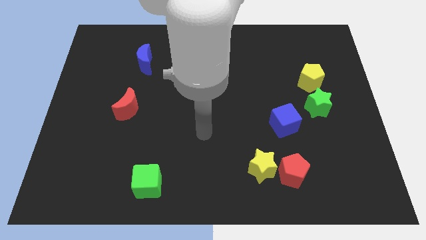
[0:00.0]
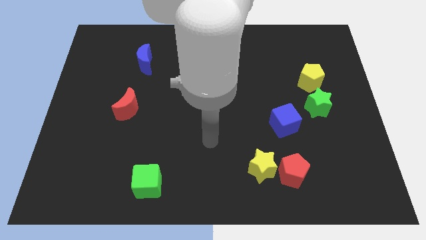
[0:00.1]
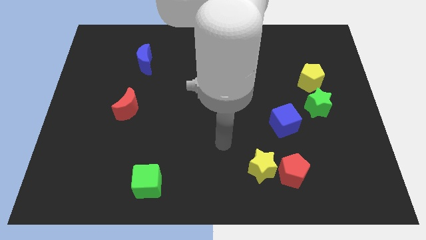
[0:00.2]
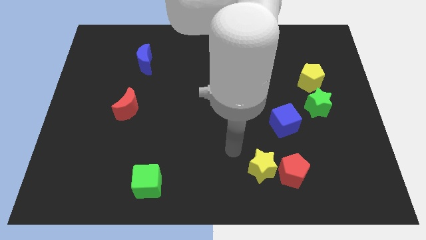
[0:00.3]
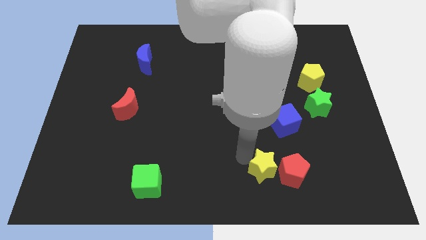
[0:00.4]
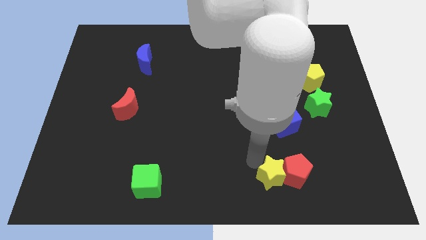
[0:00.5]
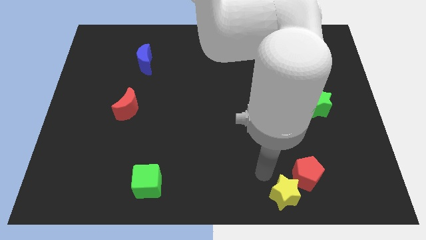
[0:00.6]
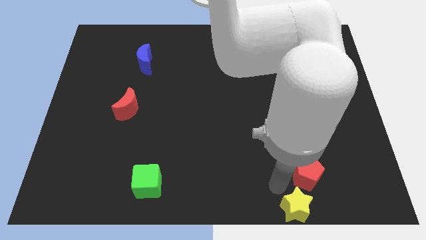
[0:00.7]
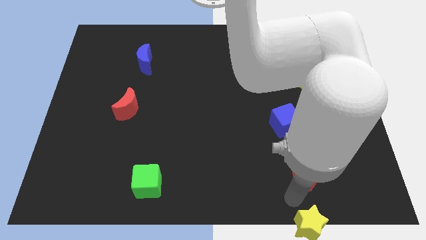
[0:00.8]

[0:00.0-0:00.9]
separate the red pentagon from the yellow star

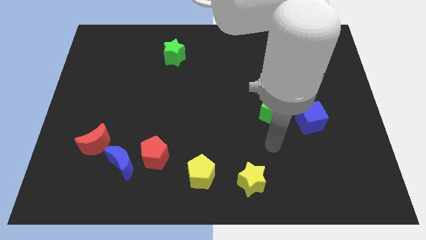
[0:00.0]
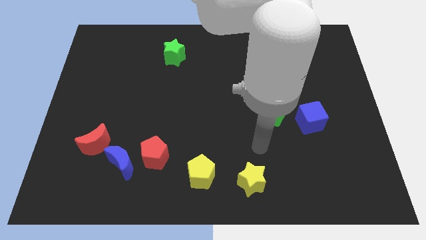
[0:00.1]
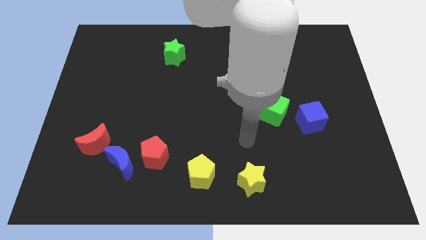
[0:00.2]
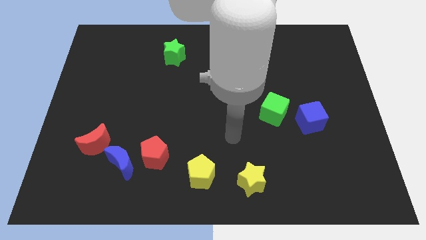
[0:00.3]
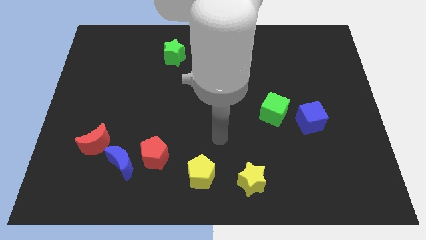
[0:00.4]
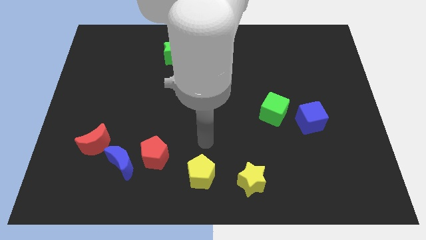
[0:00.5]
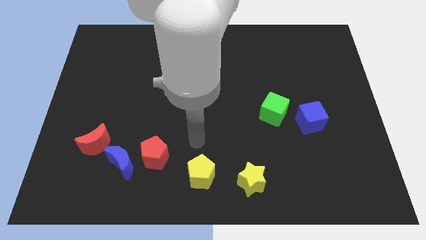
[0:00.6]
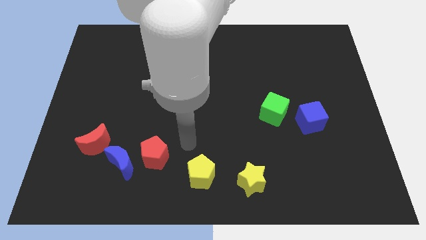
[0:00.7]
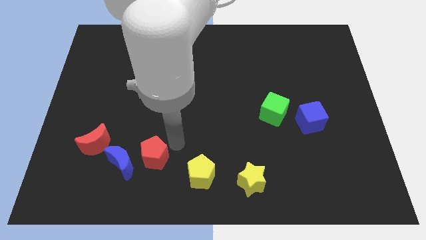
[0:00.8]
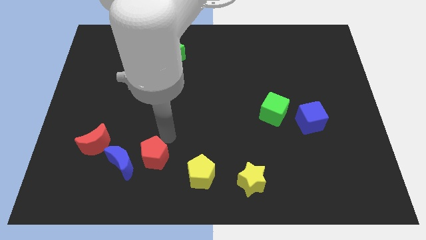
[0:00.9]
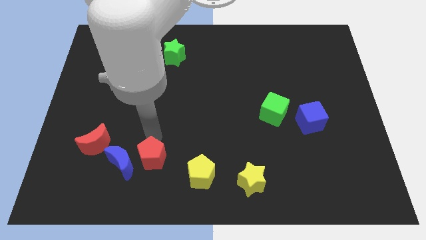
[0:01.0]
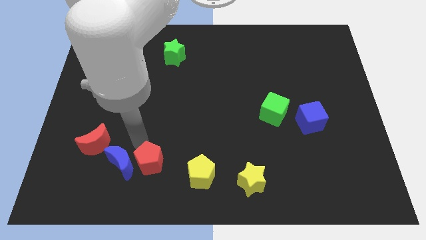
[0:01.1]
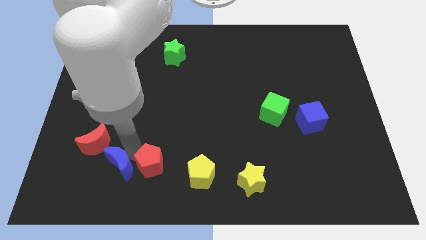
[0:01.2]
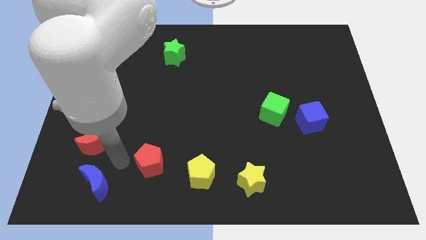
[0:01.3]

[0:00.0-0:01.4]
separate the red pentagon from the blue moon

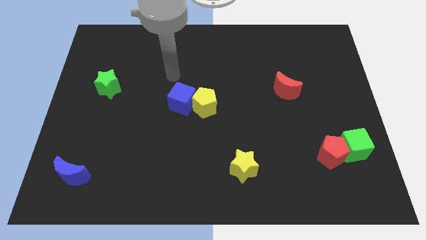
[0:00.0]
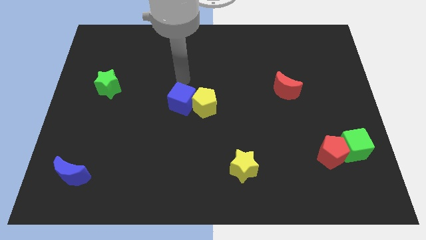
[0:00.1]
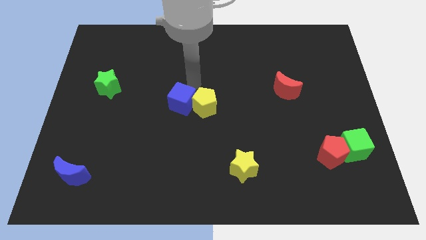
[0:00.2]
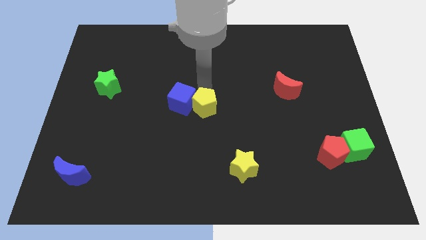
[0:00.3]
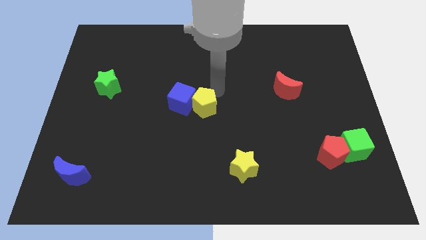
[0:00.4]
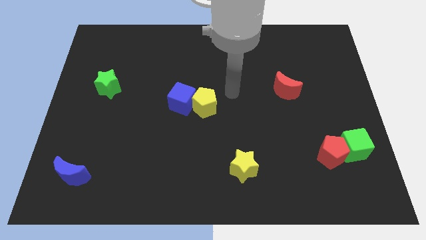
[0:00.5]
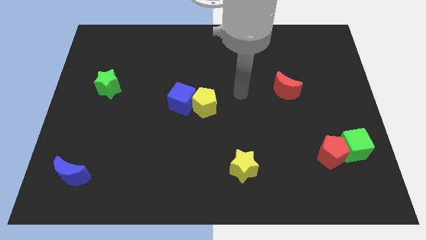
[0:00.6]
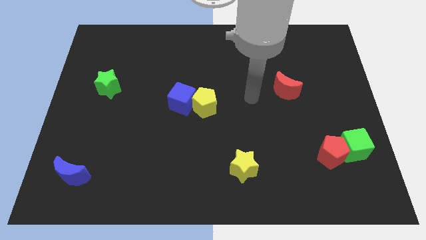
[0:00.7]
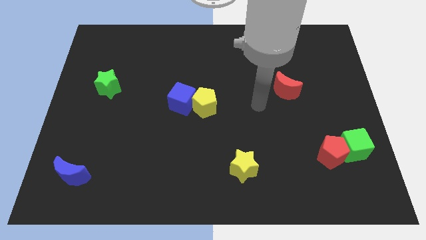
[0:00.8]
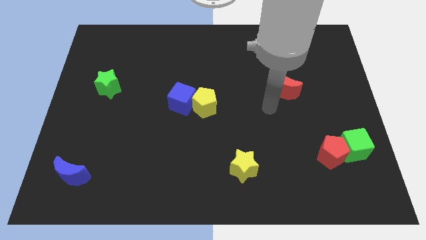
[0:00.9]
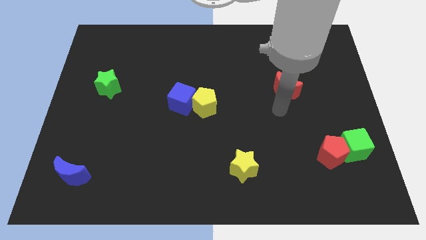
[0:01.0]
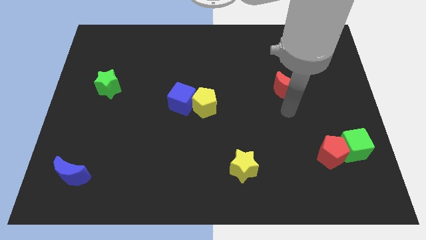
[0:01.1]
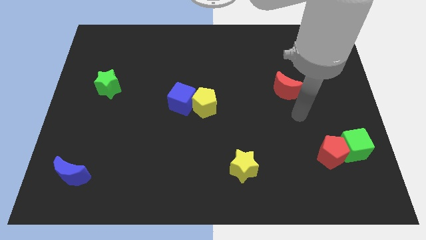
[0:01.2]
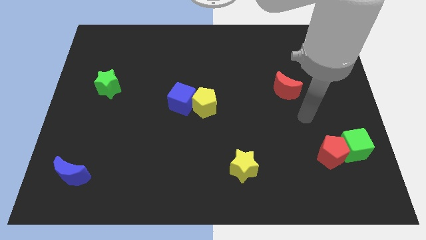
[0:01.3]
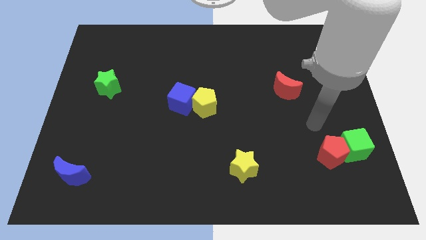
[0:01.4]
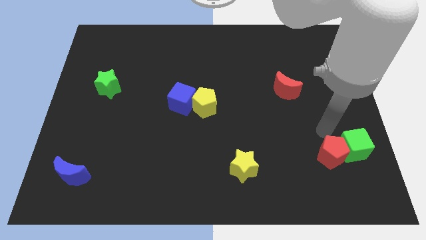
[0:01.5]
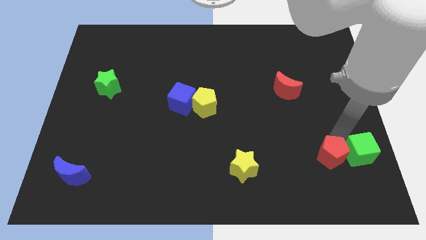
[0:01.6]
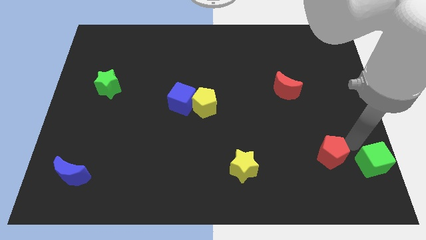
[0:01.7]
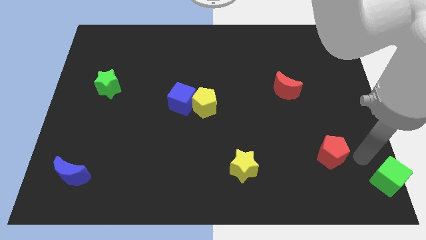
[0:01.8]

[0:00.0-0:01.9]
move the red pentagon away from the green cube

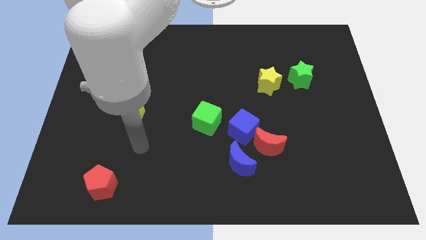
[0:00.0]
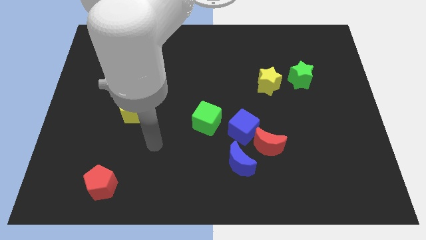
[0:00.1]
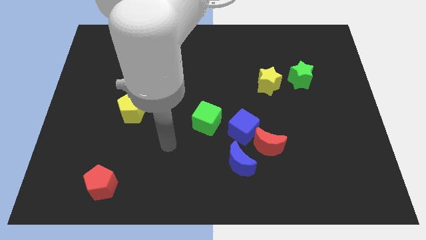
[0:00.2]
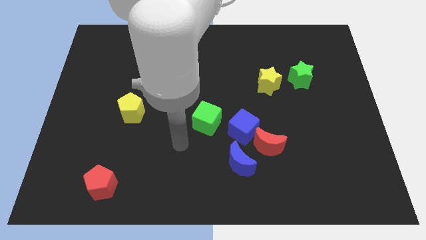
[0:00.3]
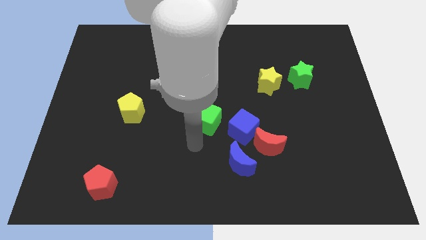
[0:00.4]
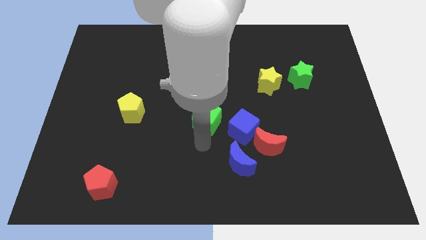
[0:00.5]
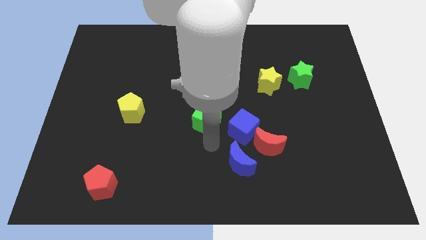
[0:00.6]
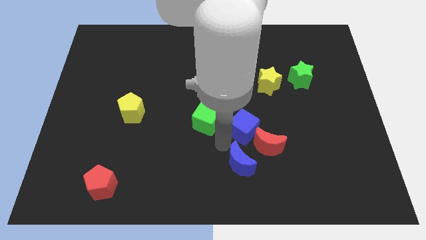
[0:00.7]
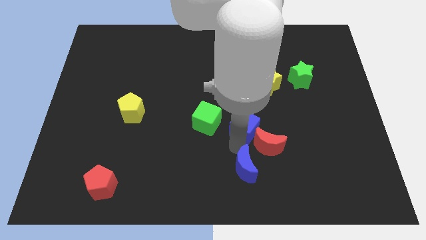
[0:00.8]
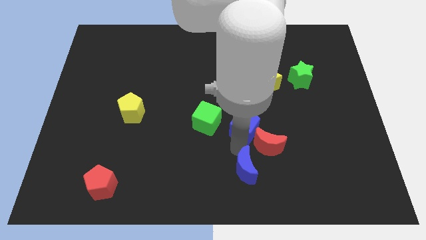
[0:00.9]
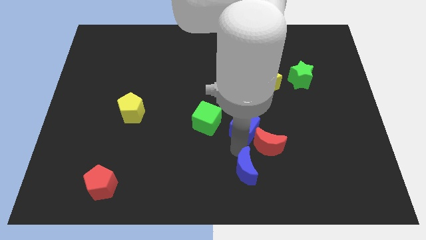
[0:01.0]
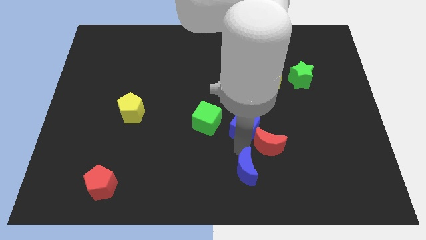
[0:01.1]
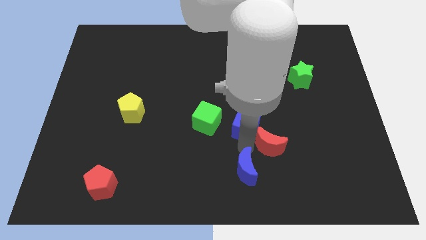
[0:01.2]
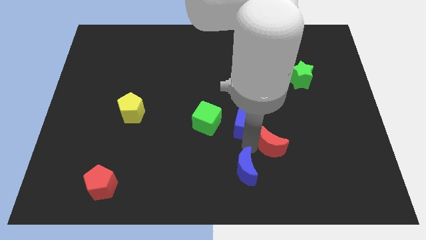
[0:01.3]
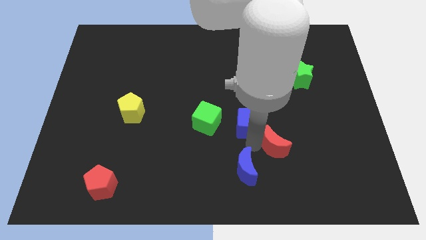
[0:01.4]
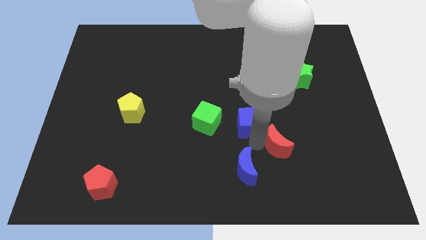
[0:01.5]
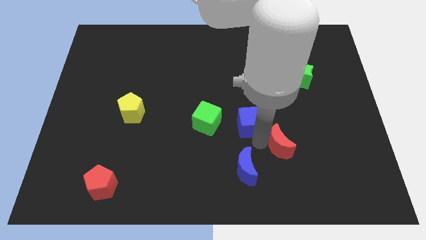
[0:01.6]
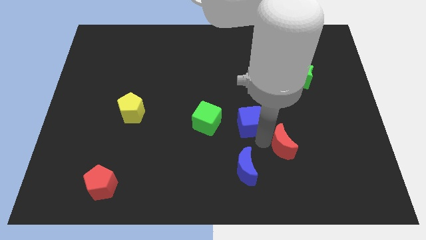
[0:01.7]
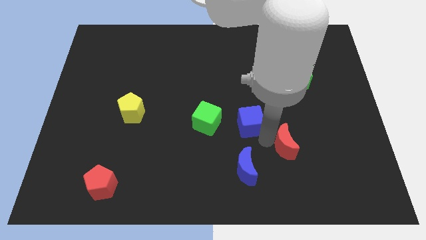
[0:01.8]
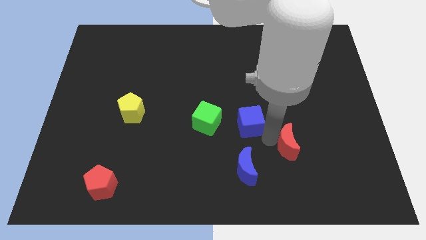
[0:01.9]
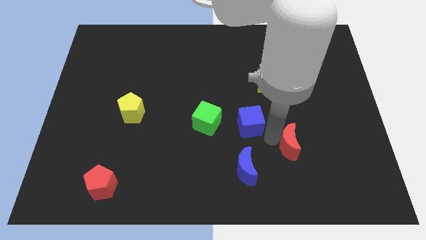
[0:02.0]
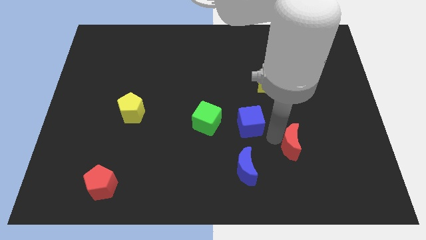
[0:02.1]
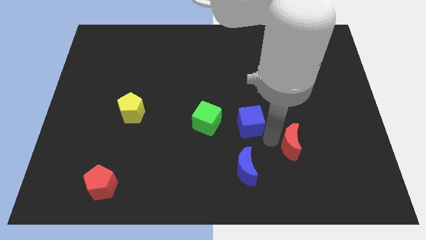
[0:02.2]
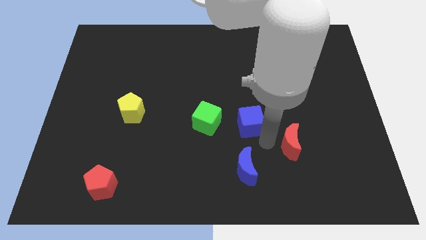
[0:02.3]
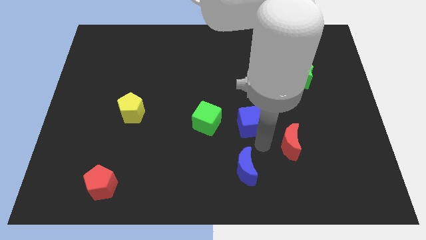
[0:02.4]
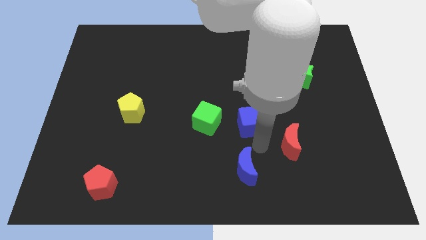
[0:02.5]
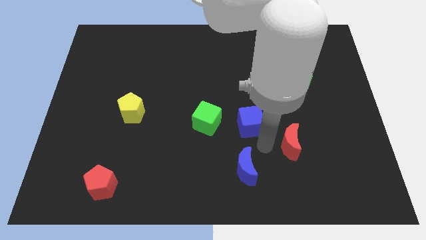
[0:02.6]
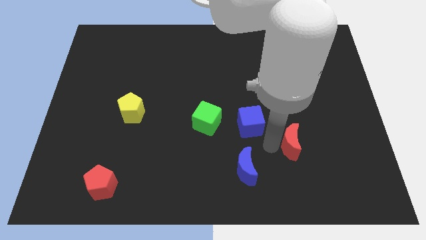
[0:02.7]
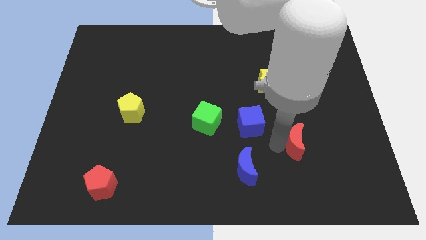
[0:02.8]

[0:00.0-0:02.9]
separate the red moon from the blue cube and blue moon

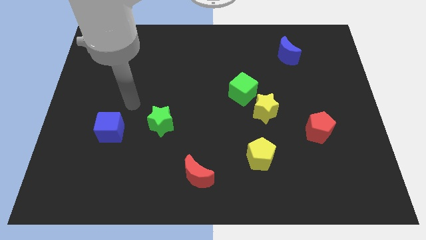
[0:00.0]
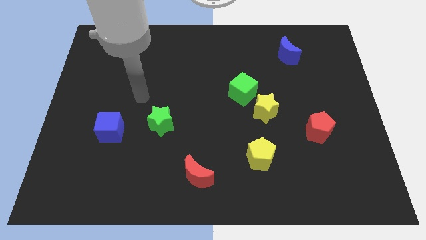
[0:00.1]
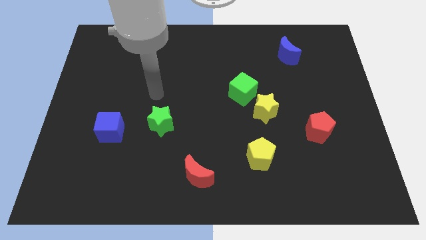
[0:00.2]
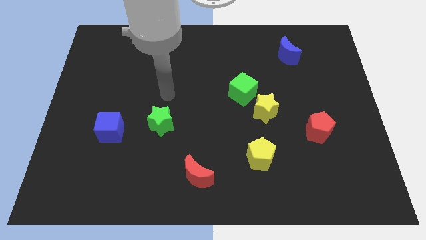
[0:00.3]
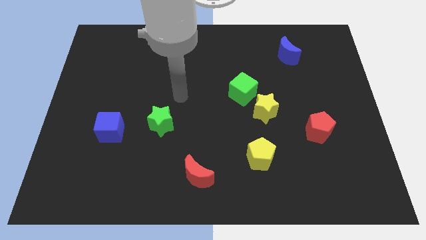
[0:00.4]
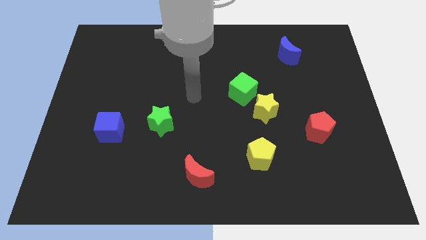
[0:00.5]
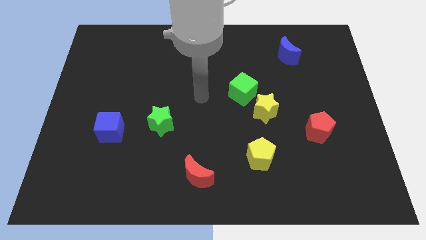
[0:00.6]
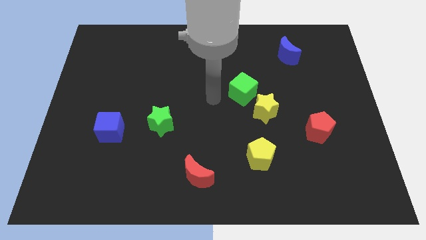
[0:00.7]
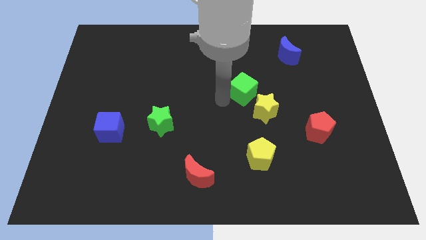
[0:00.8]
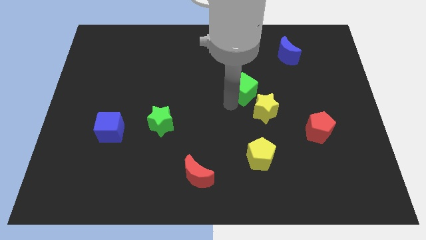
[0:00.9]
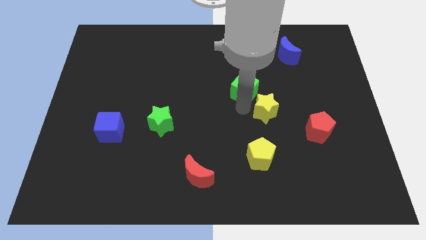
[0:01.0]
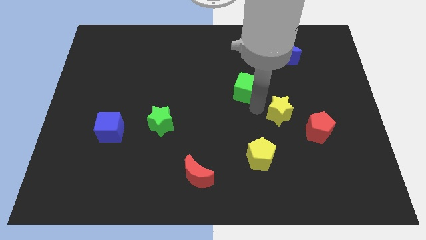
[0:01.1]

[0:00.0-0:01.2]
pull the green cube apart from the yellow star

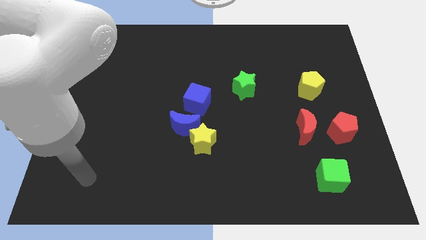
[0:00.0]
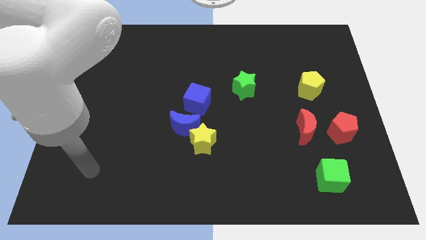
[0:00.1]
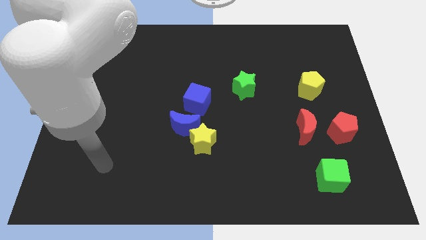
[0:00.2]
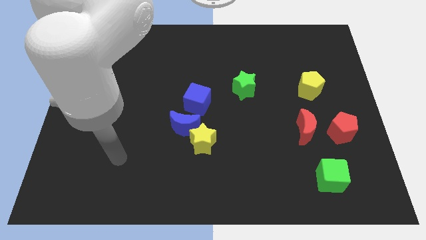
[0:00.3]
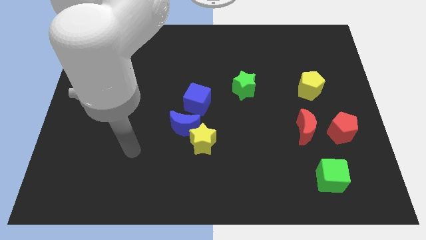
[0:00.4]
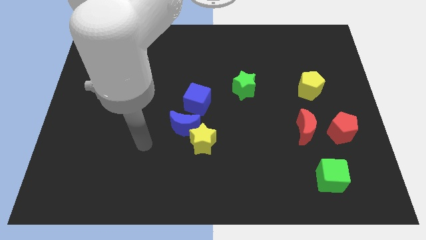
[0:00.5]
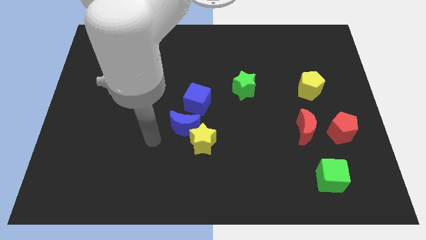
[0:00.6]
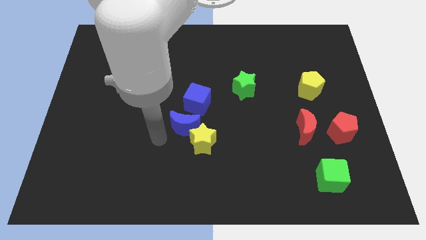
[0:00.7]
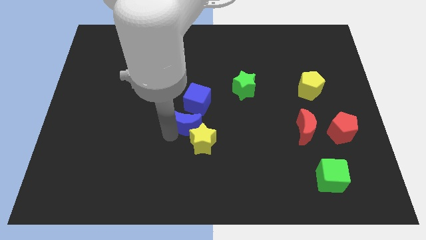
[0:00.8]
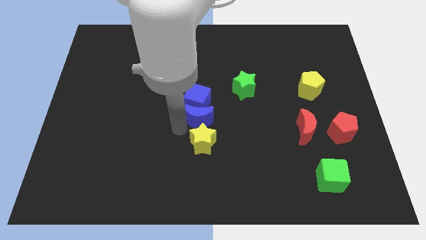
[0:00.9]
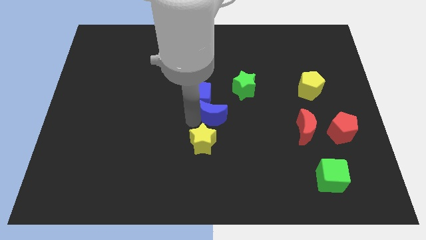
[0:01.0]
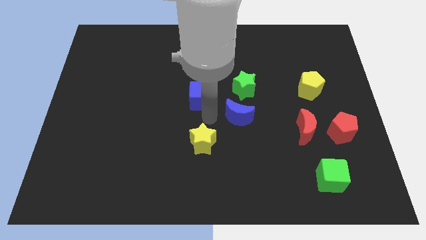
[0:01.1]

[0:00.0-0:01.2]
separate the yellow star from the blue moon
